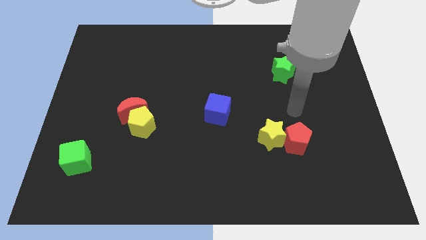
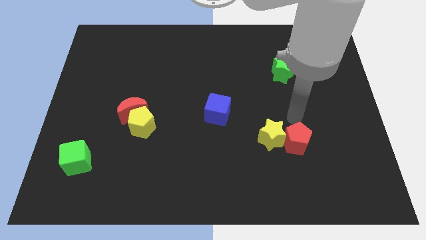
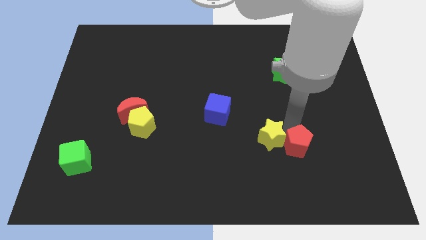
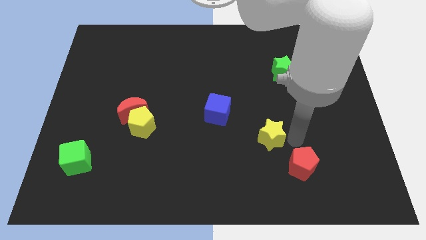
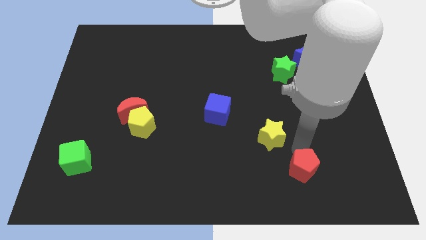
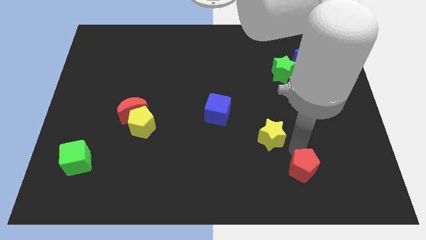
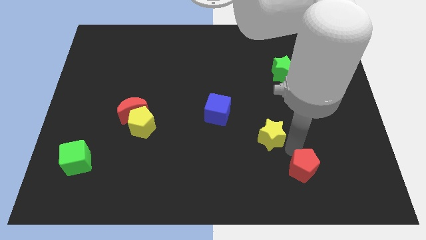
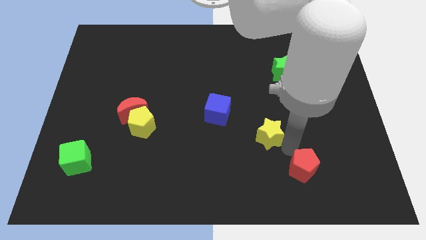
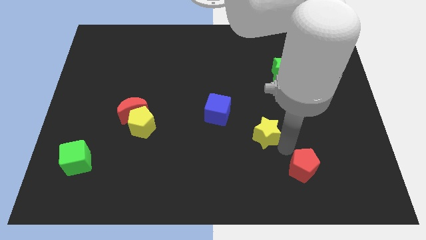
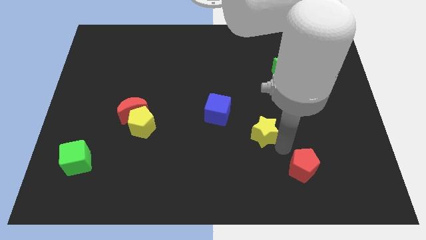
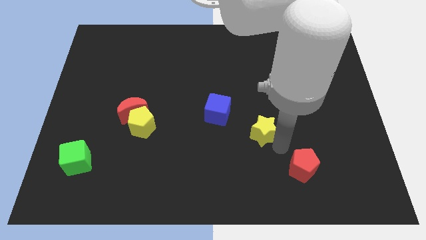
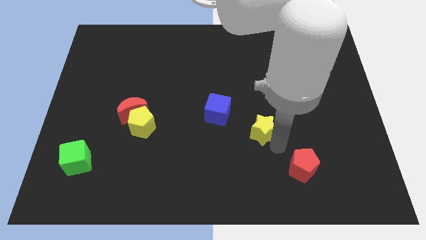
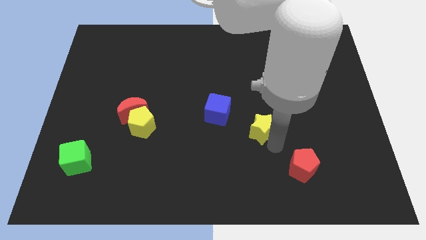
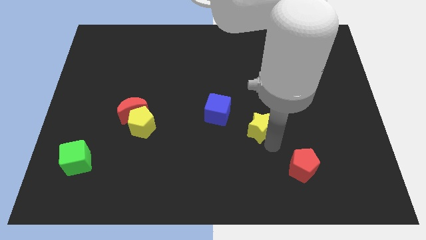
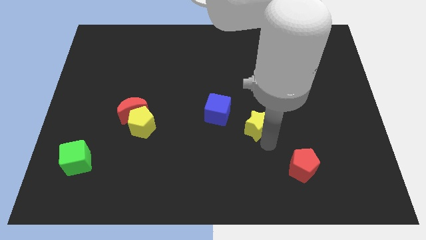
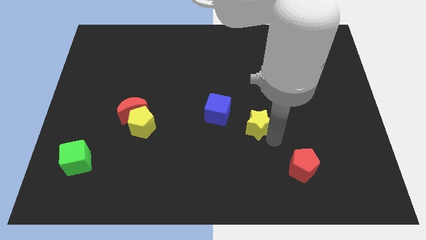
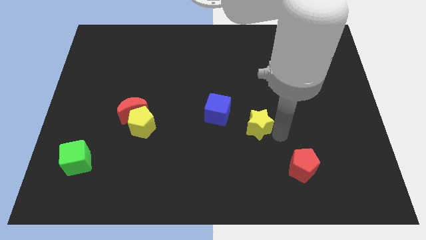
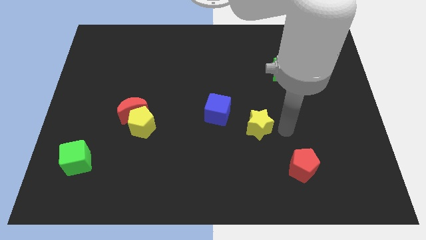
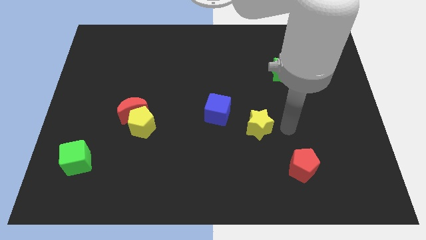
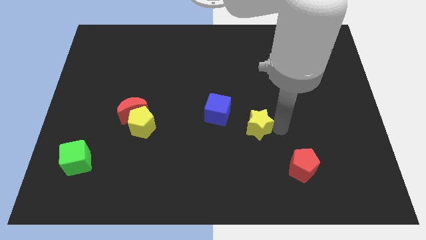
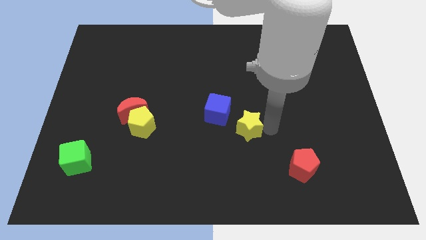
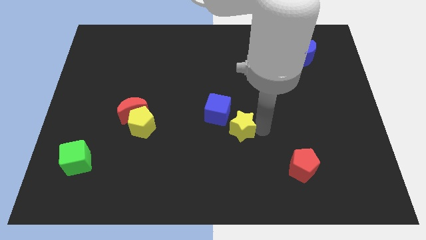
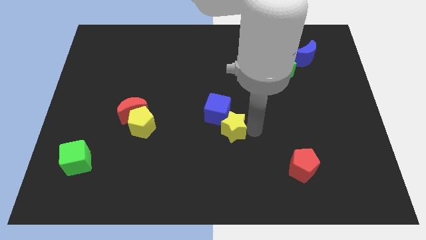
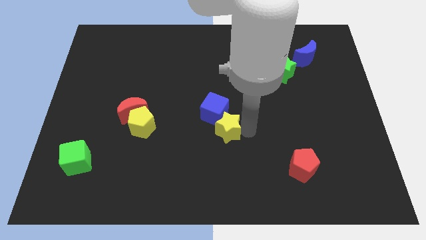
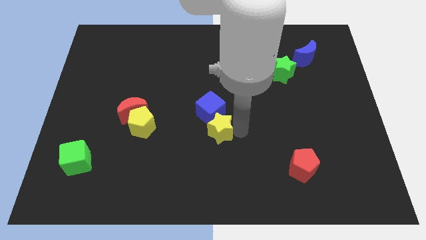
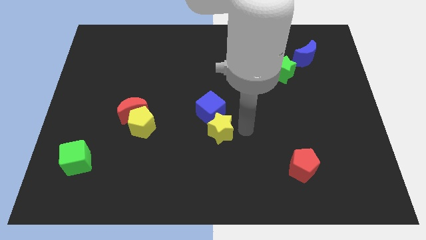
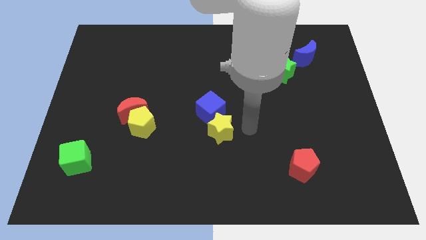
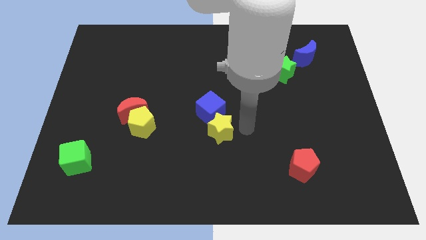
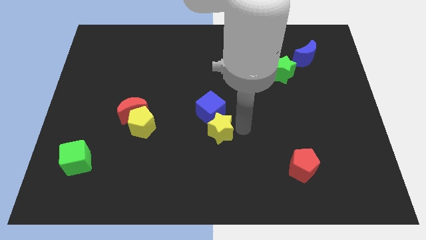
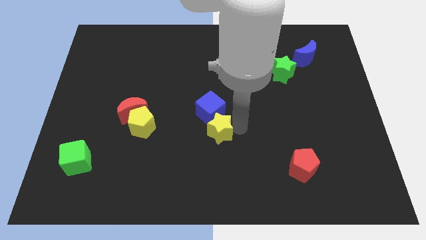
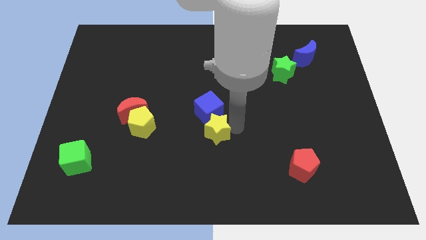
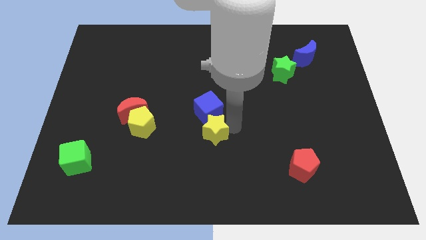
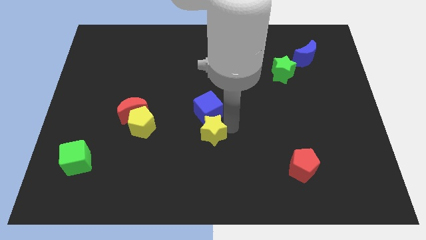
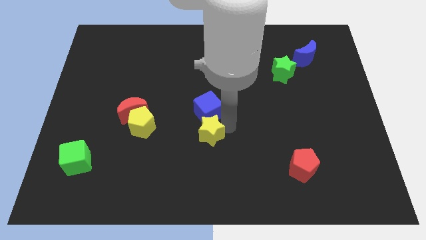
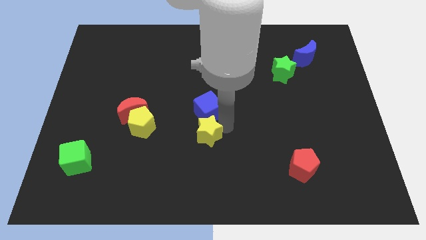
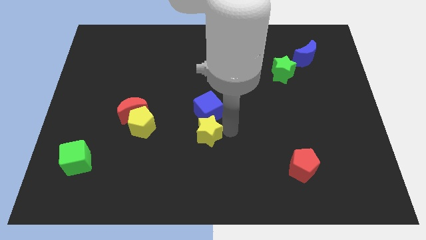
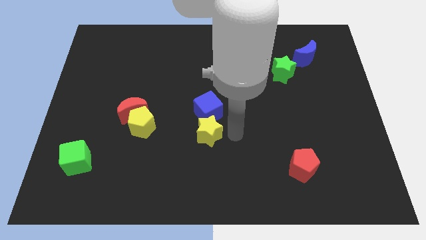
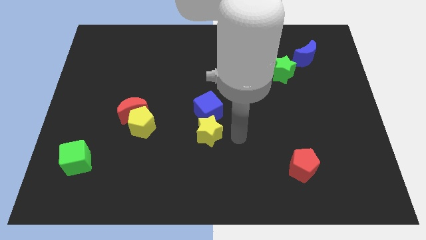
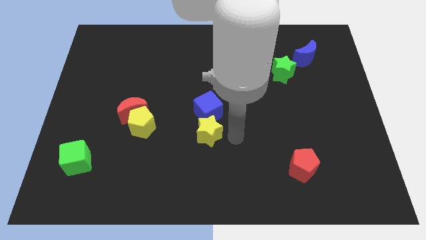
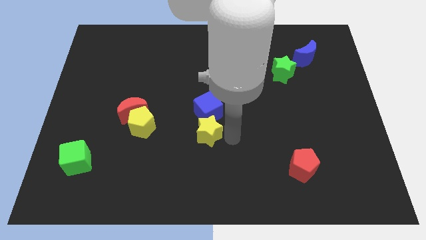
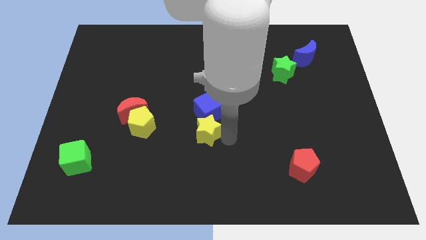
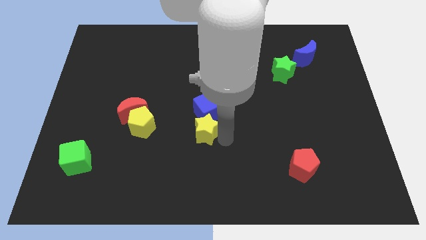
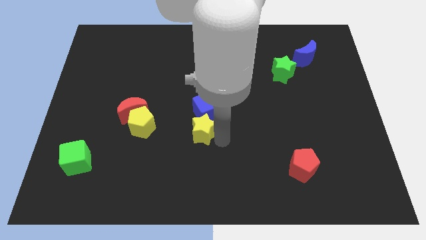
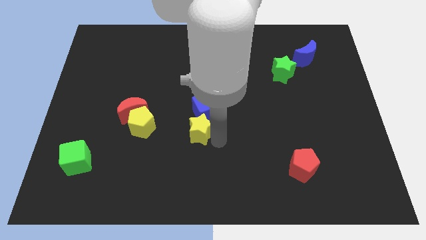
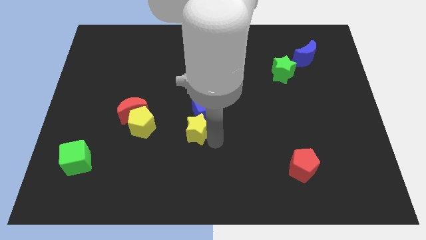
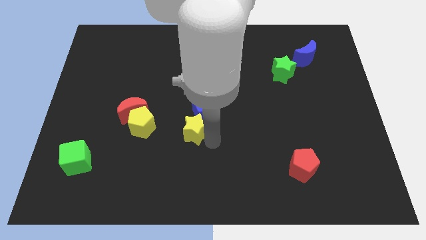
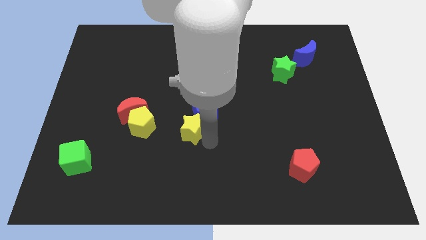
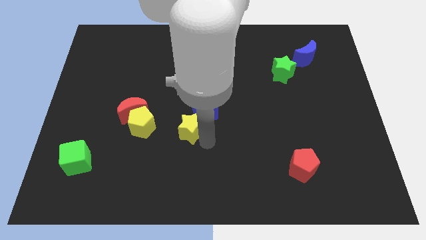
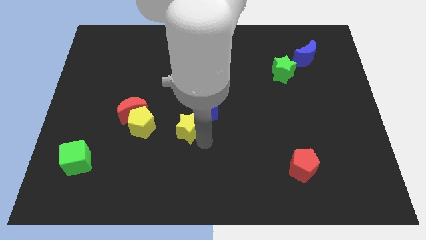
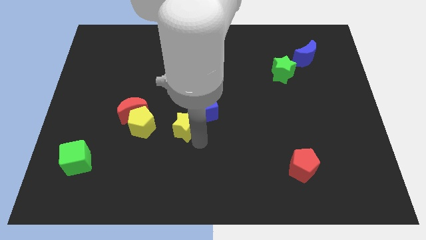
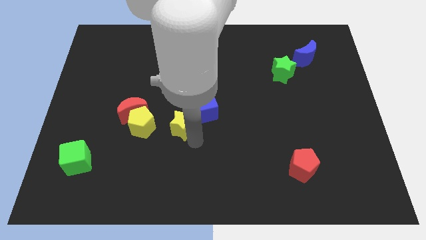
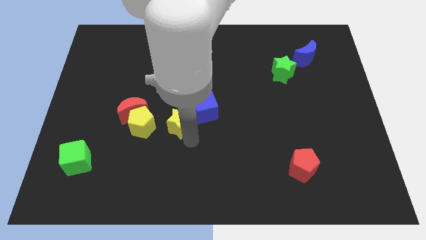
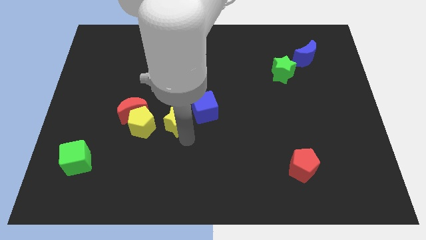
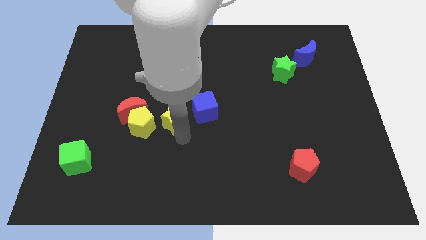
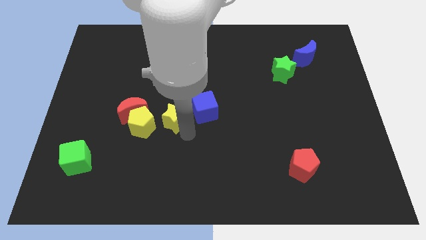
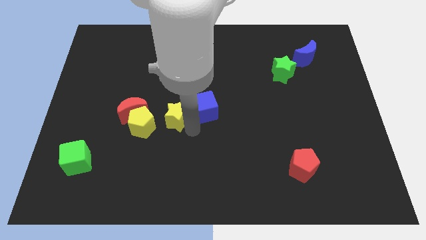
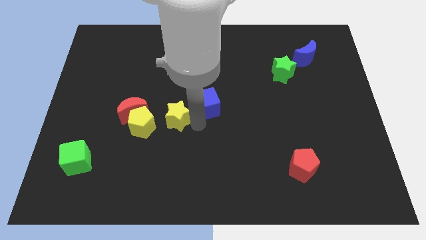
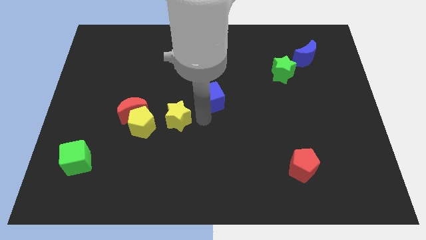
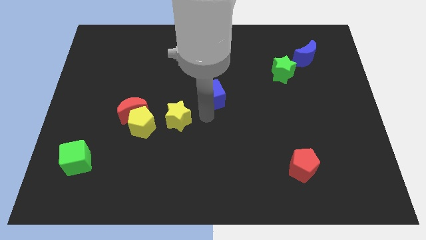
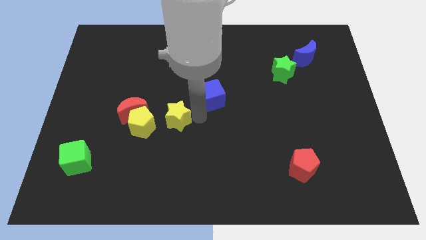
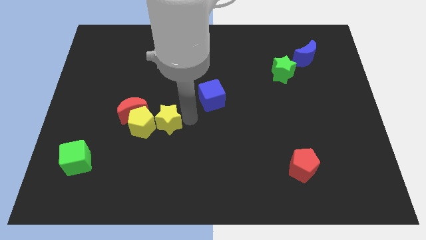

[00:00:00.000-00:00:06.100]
slide the yellow star close to the yellow pentagon

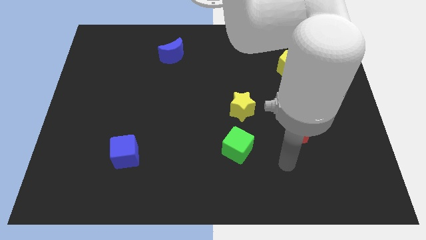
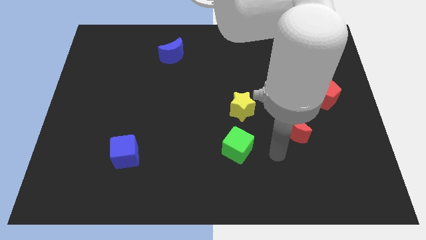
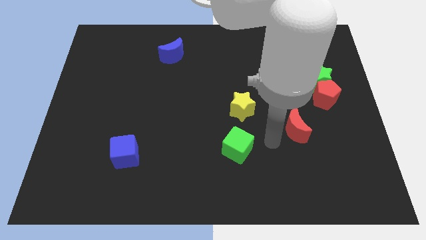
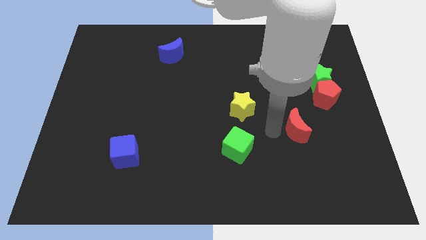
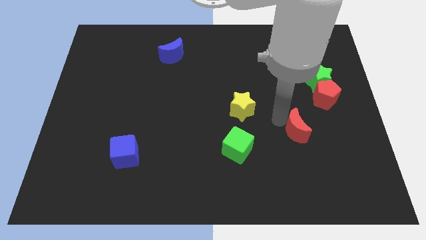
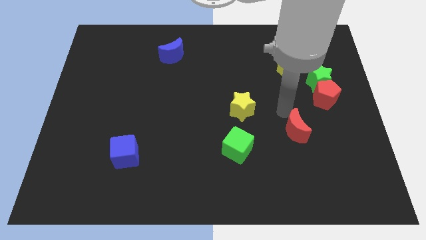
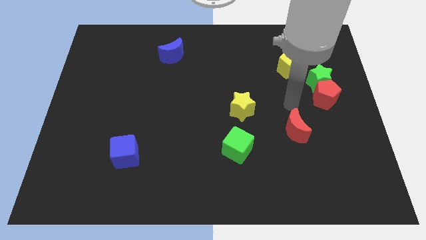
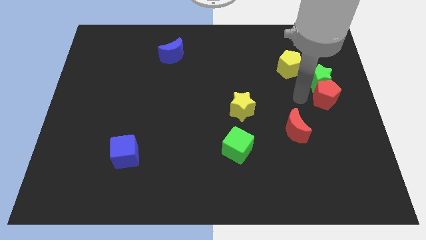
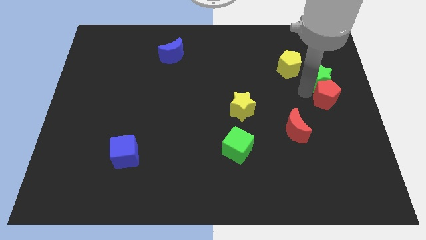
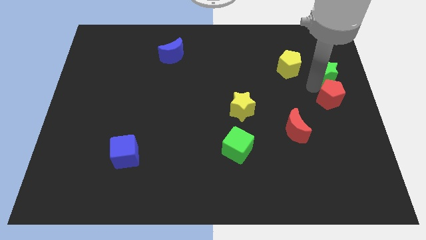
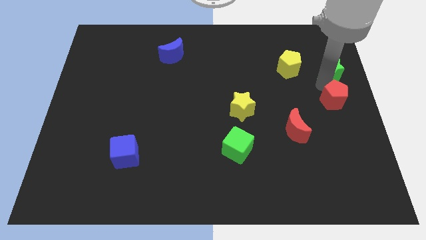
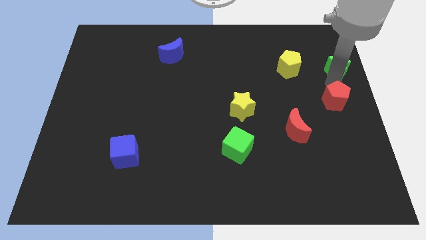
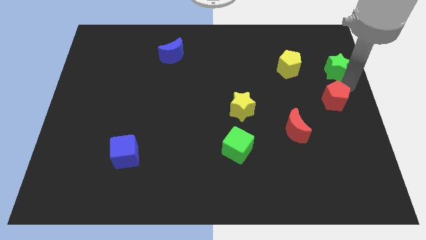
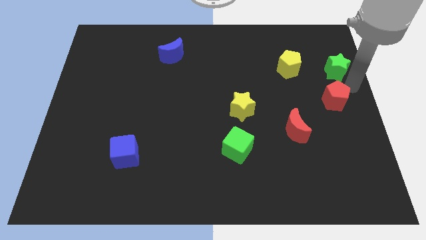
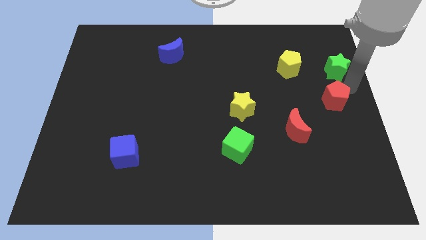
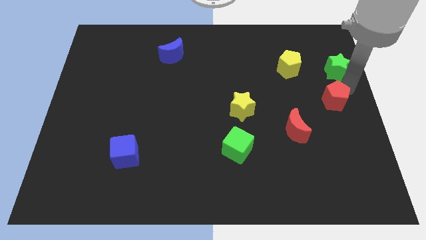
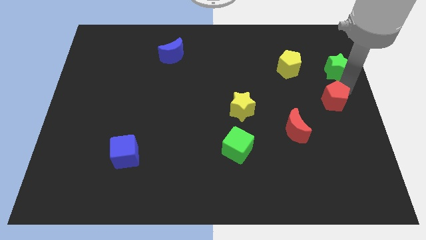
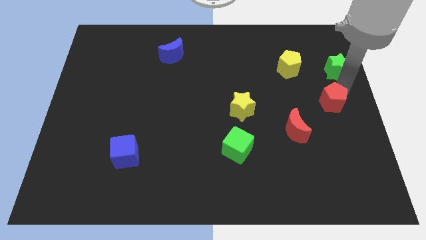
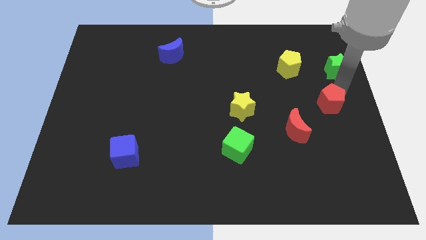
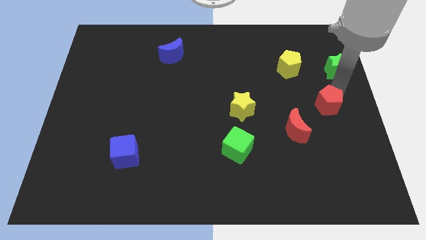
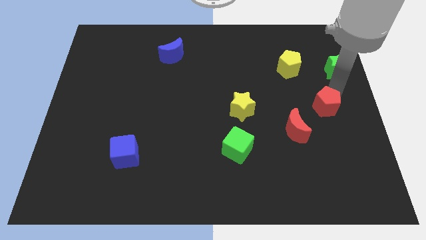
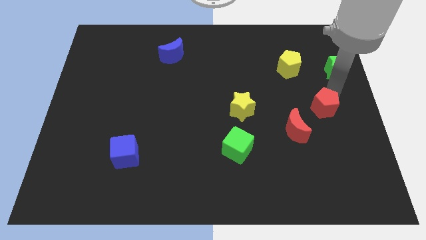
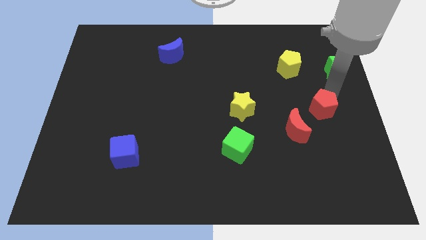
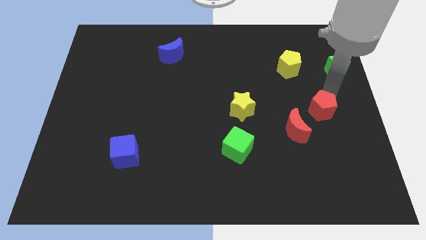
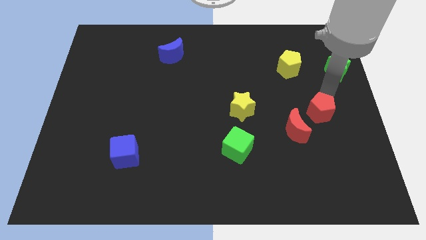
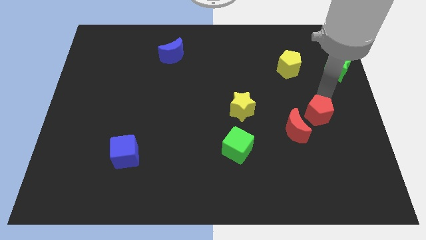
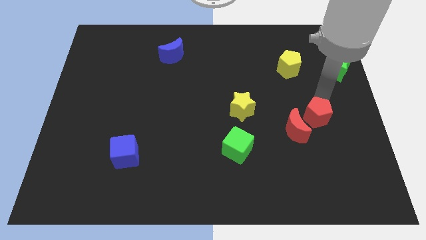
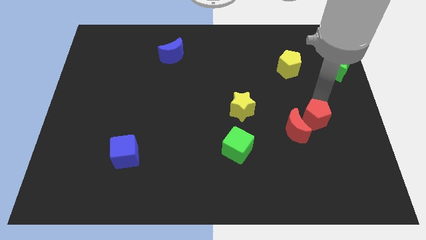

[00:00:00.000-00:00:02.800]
push the red pentagon to the red moon
